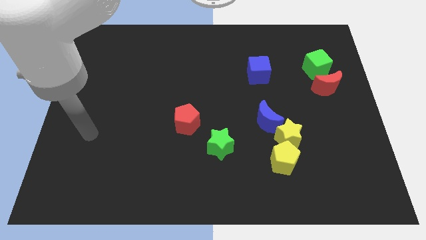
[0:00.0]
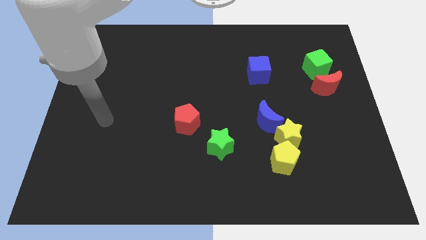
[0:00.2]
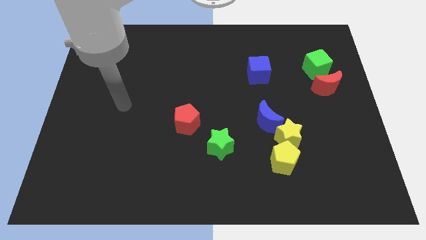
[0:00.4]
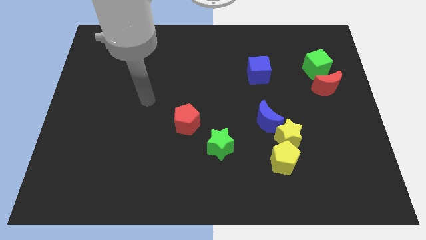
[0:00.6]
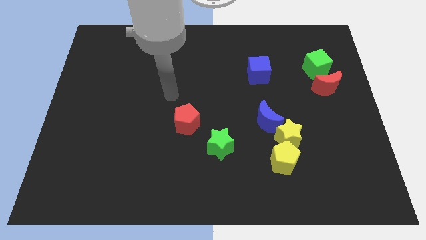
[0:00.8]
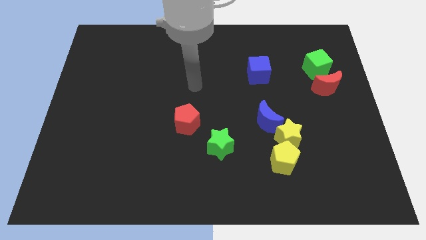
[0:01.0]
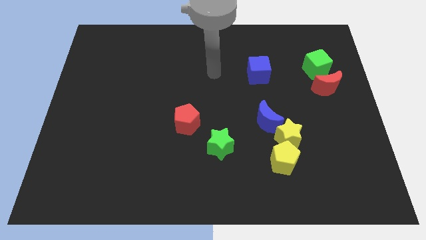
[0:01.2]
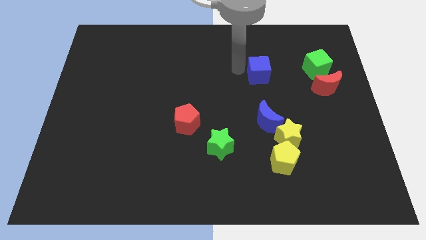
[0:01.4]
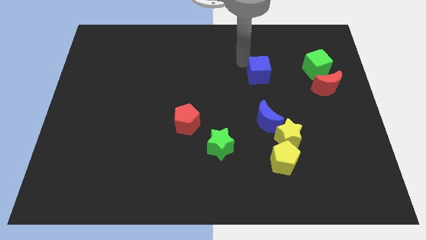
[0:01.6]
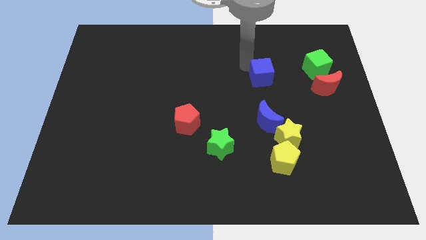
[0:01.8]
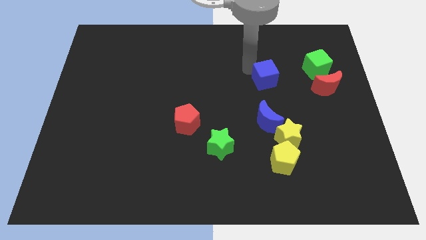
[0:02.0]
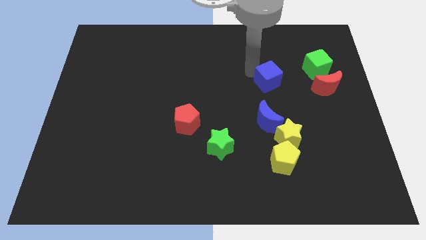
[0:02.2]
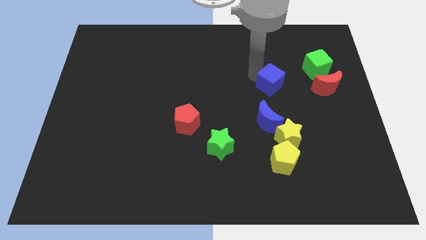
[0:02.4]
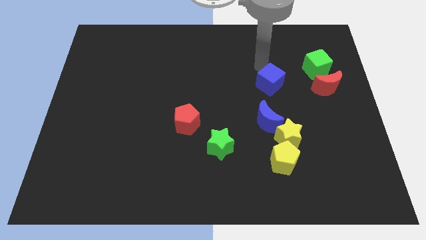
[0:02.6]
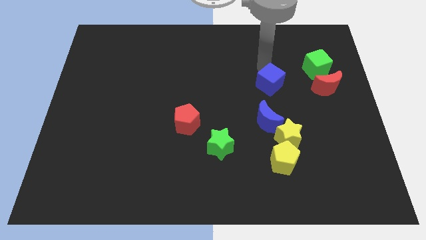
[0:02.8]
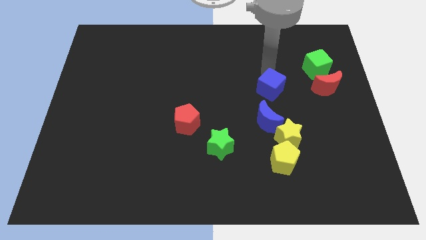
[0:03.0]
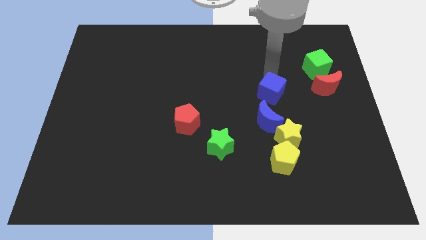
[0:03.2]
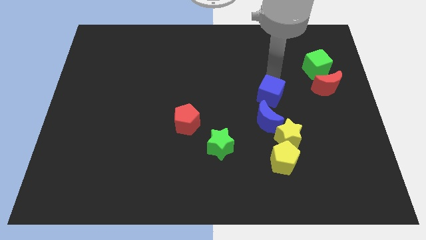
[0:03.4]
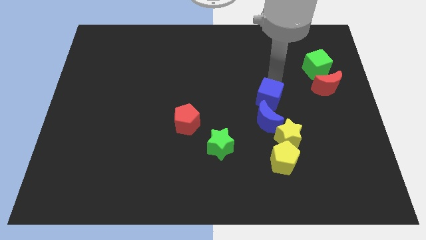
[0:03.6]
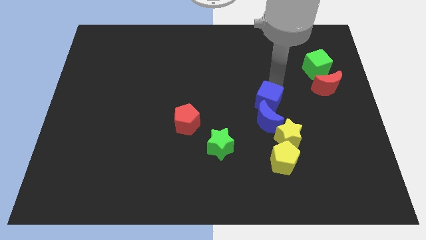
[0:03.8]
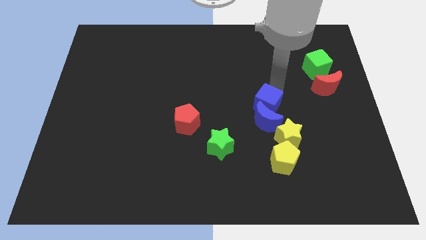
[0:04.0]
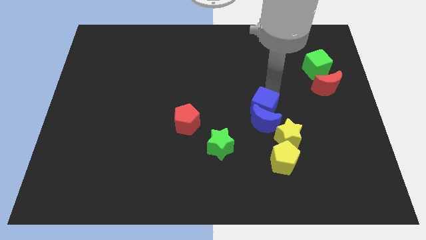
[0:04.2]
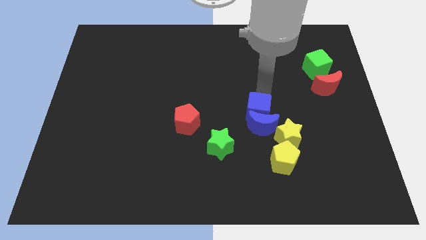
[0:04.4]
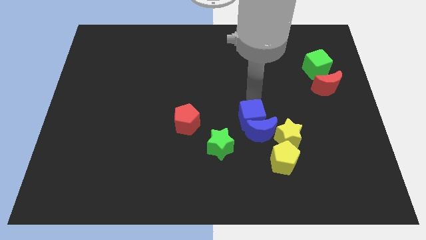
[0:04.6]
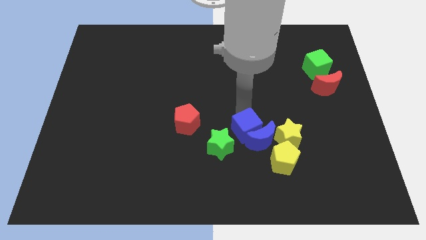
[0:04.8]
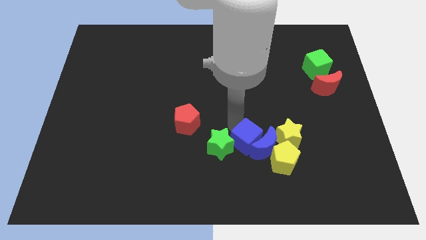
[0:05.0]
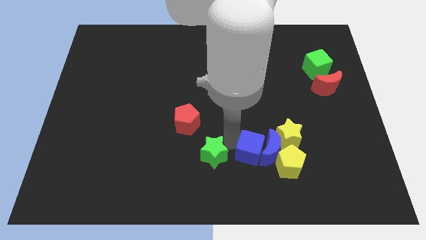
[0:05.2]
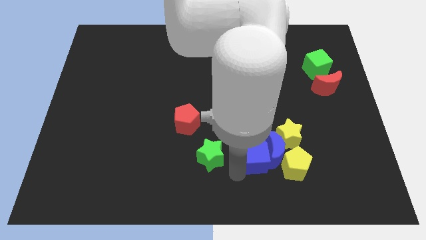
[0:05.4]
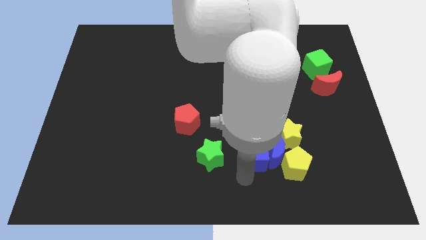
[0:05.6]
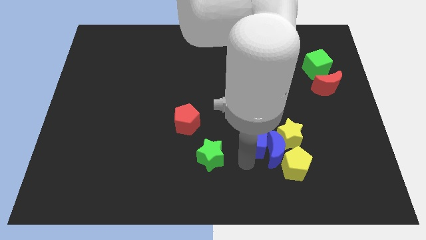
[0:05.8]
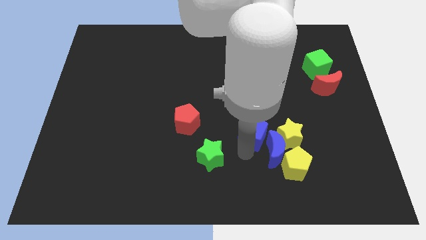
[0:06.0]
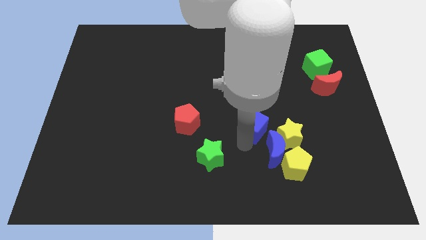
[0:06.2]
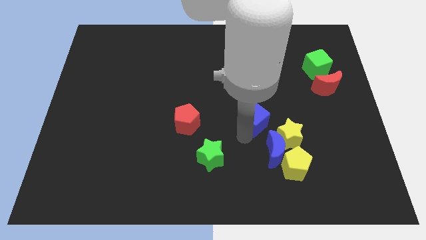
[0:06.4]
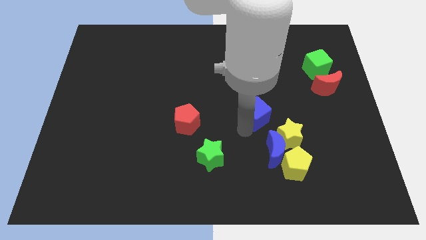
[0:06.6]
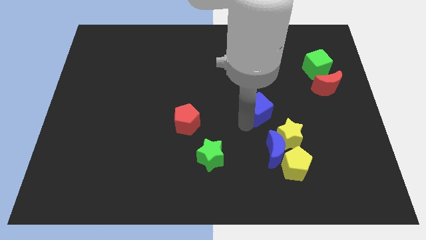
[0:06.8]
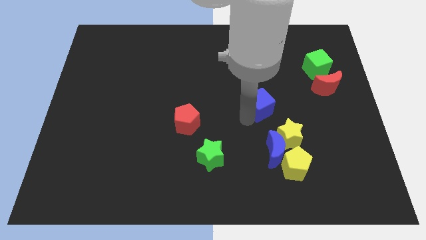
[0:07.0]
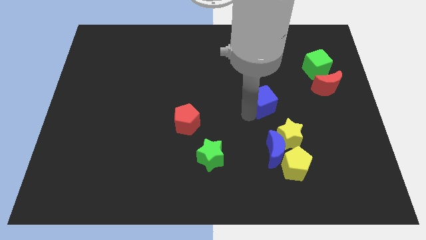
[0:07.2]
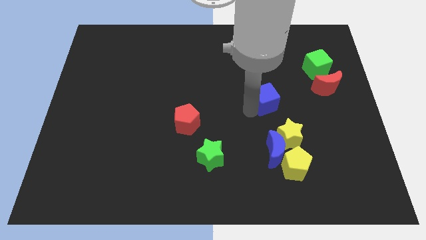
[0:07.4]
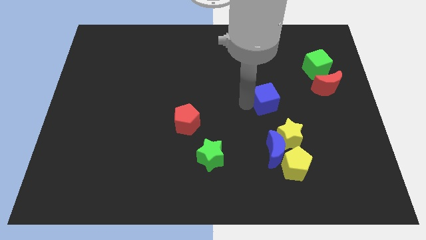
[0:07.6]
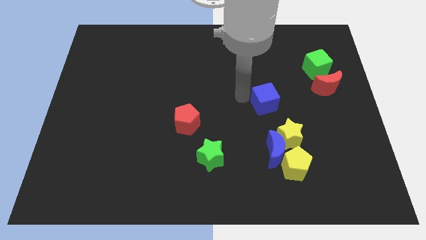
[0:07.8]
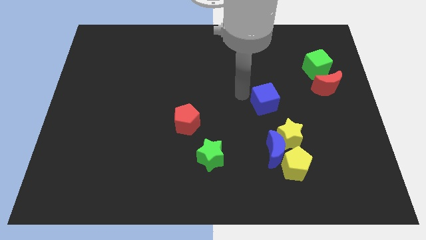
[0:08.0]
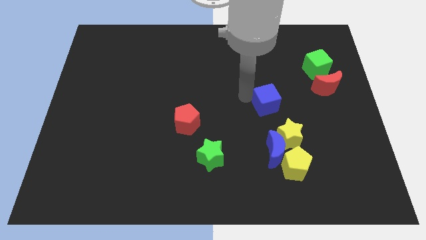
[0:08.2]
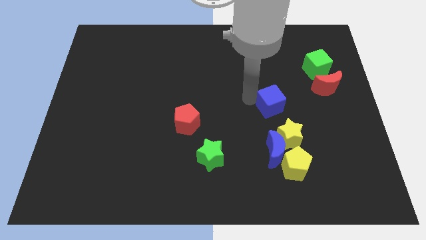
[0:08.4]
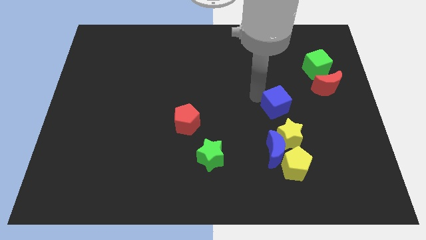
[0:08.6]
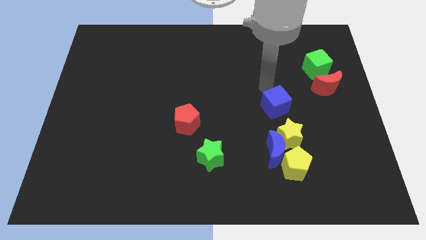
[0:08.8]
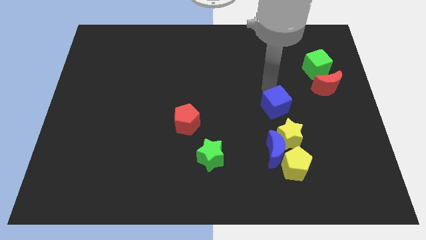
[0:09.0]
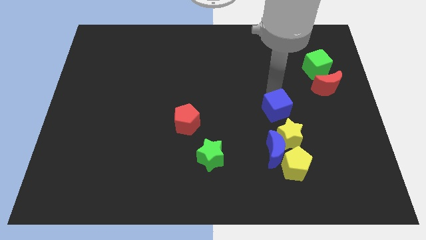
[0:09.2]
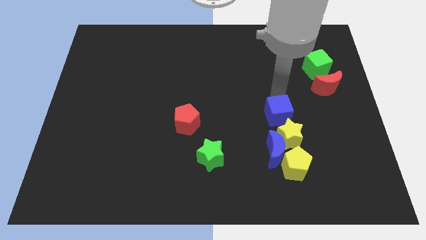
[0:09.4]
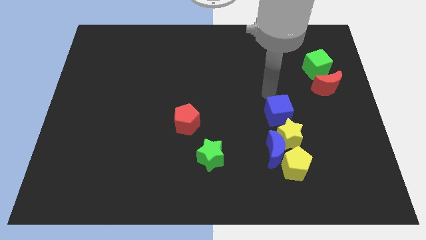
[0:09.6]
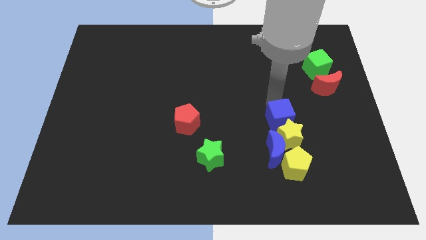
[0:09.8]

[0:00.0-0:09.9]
move the blue cube next to the yellow star

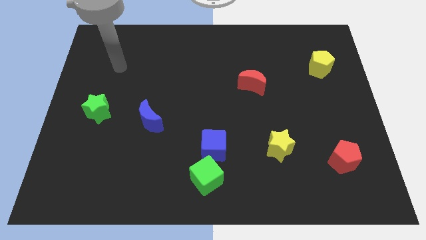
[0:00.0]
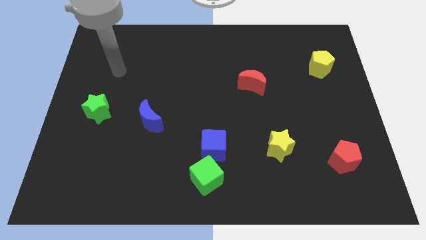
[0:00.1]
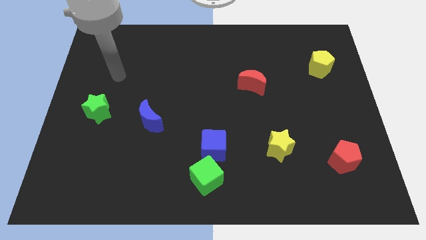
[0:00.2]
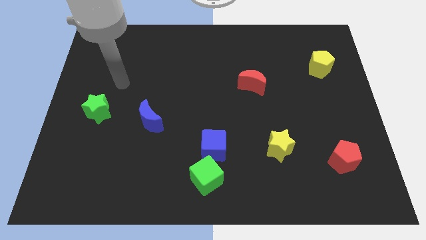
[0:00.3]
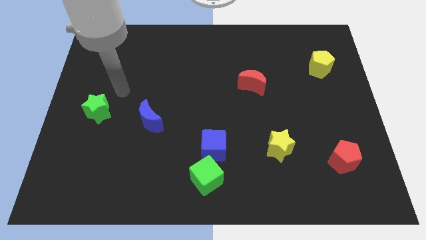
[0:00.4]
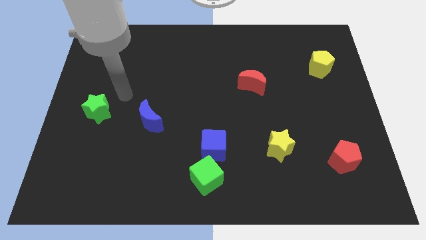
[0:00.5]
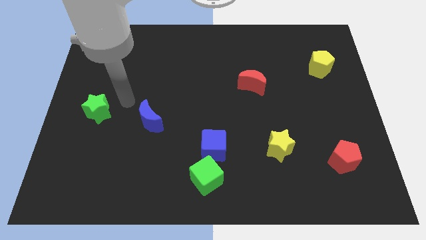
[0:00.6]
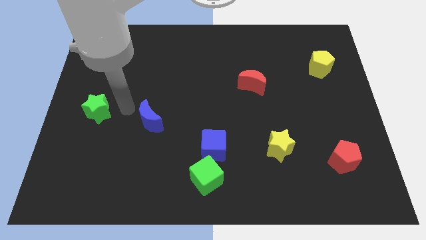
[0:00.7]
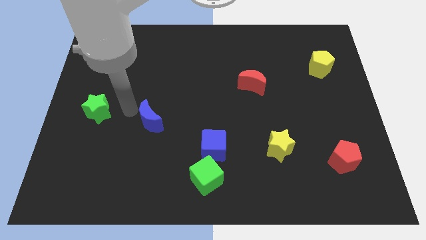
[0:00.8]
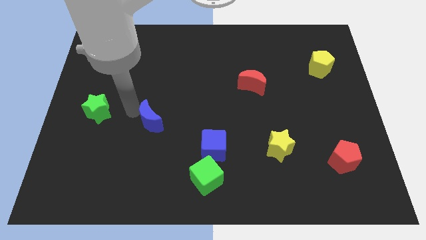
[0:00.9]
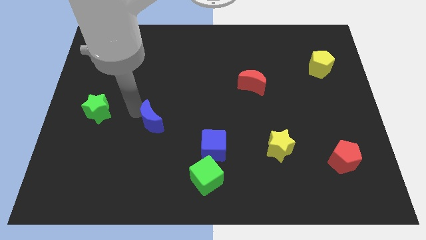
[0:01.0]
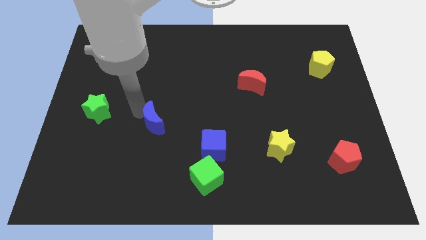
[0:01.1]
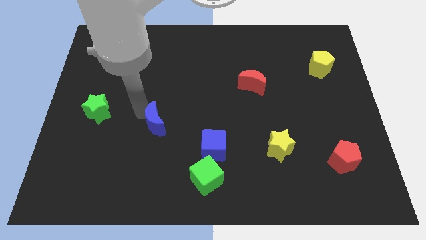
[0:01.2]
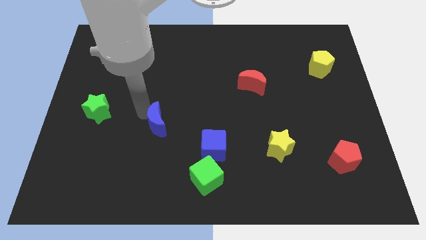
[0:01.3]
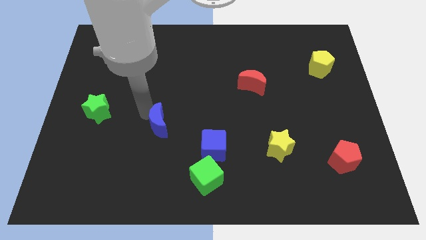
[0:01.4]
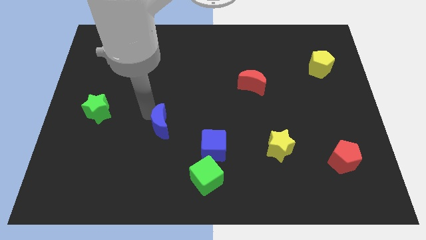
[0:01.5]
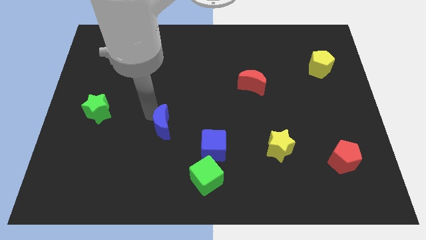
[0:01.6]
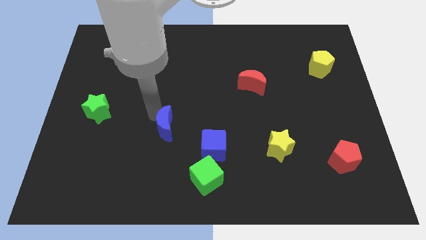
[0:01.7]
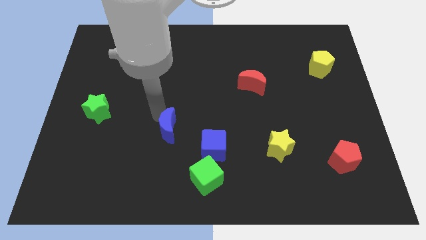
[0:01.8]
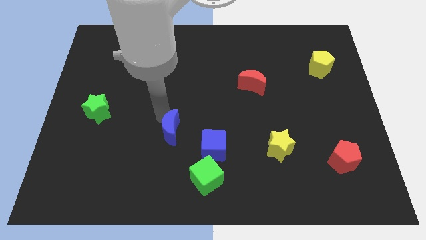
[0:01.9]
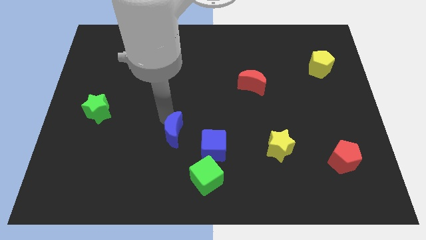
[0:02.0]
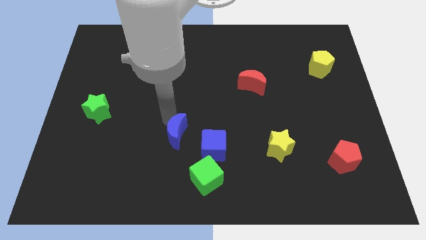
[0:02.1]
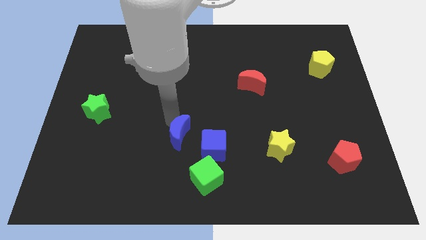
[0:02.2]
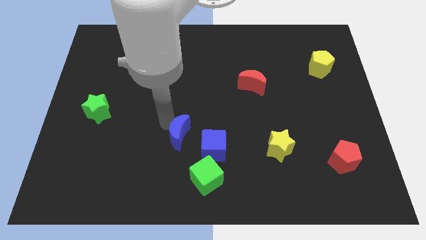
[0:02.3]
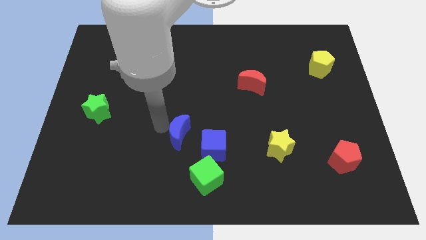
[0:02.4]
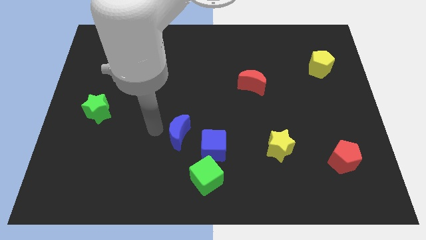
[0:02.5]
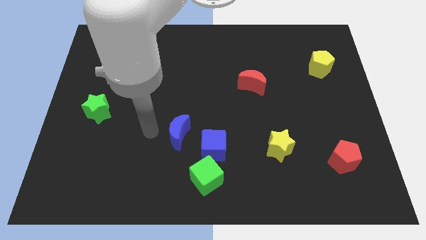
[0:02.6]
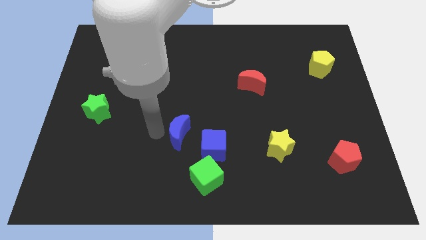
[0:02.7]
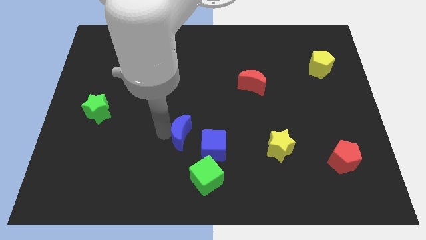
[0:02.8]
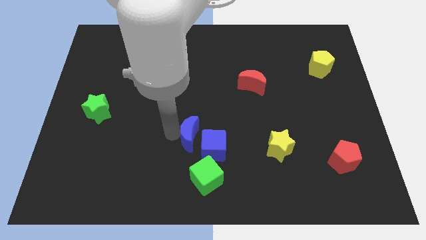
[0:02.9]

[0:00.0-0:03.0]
put the blue moon close to the blue cube
